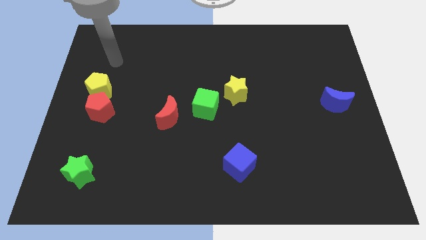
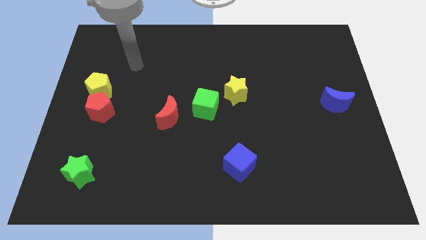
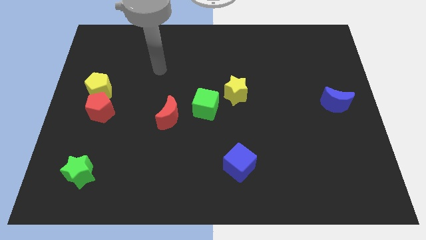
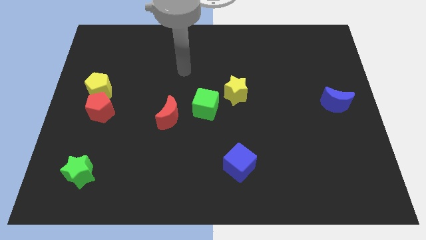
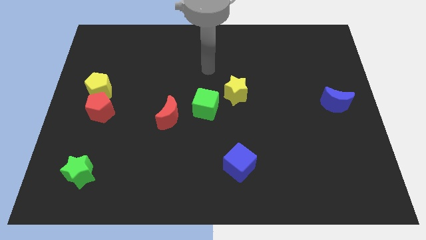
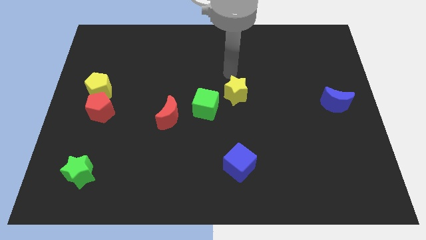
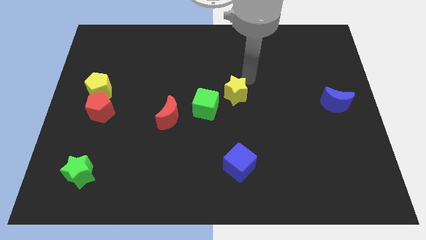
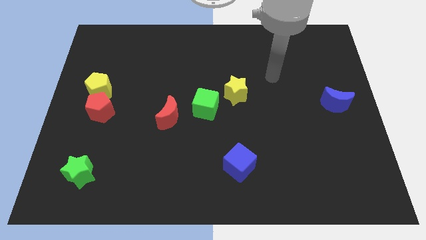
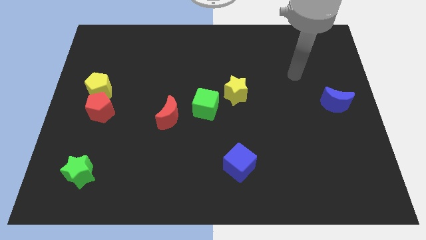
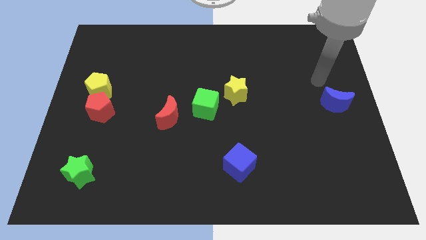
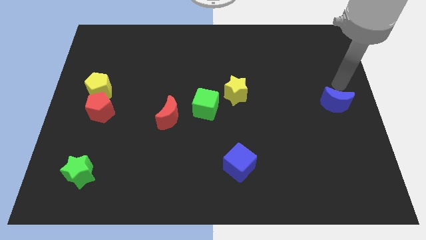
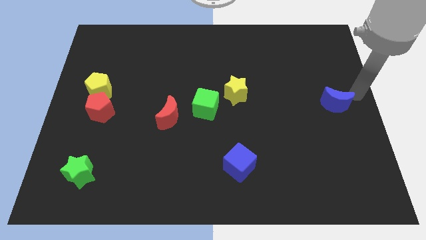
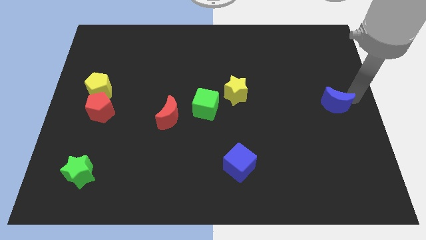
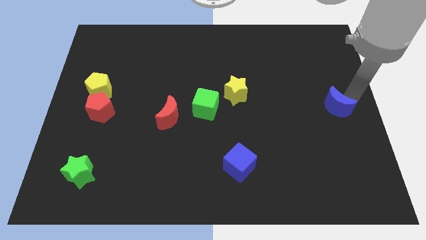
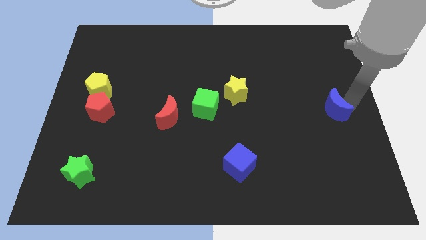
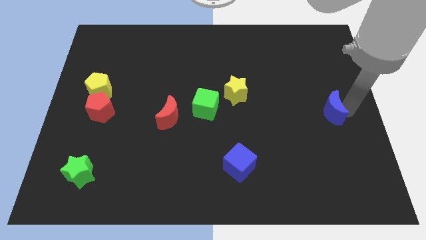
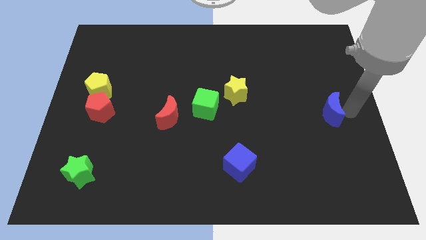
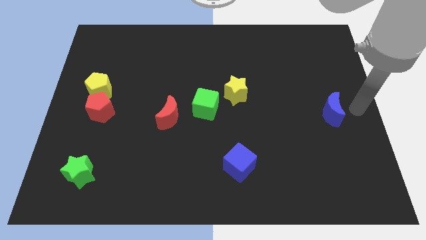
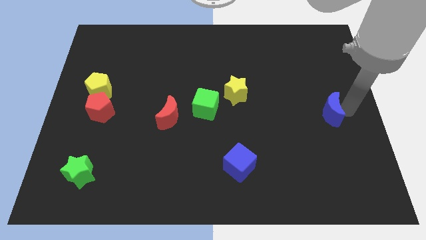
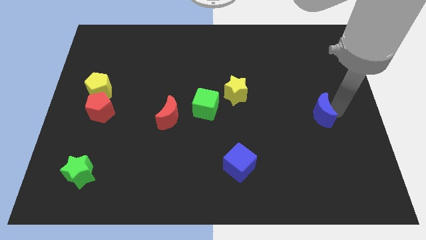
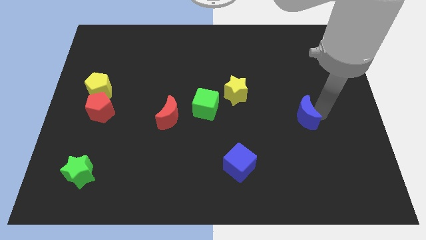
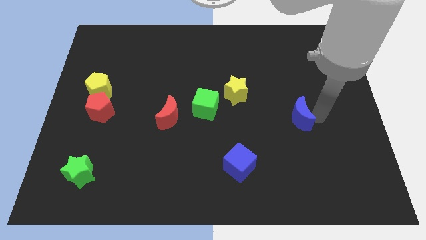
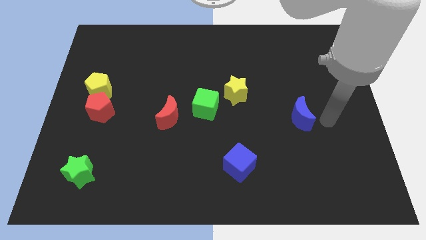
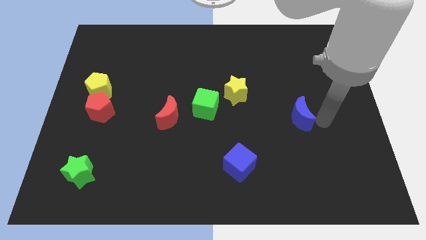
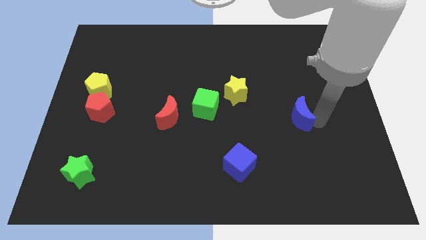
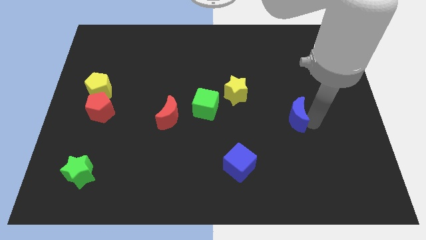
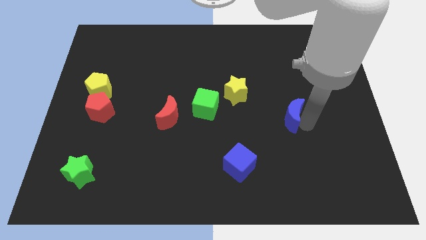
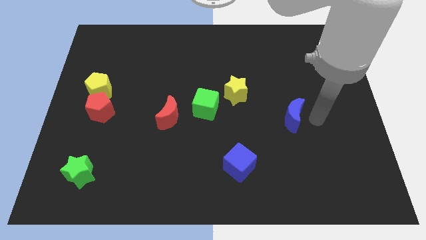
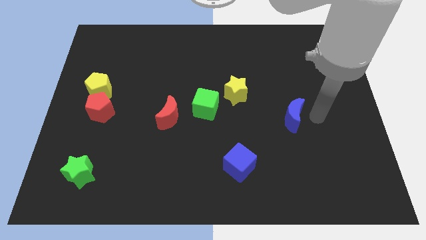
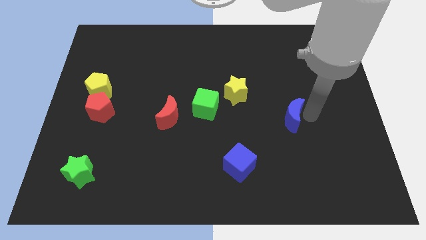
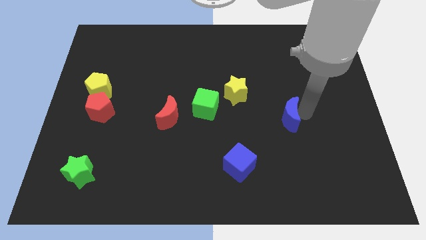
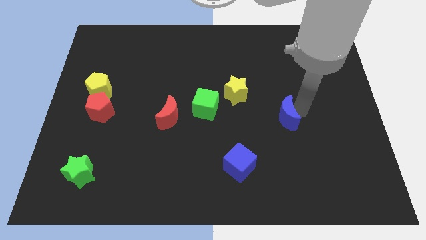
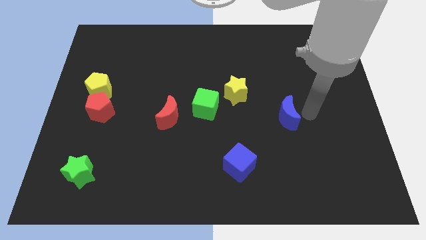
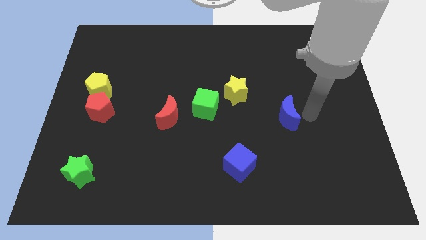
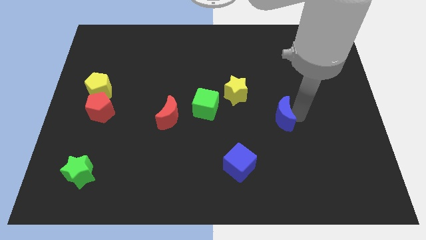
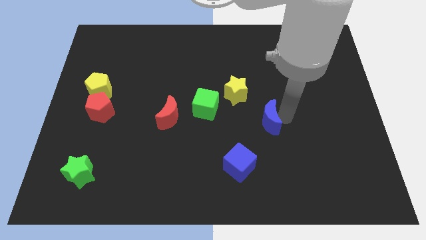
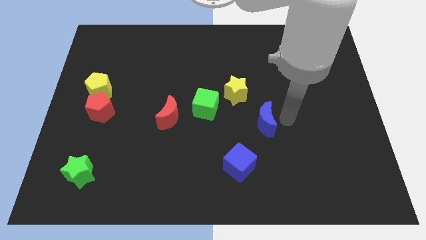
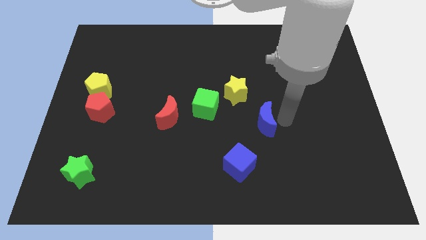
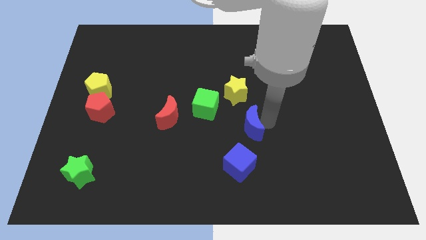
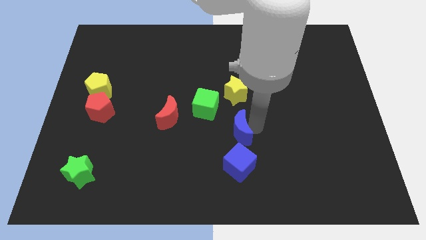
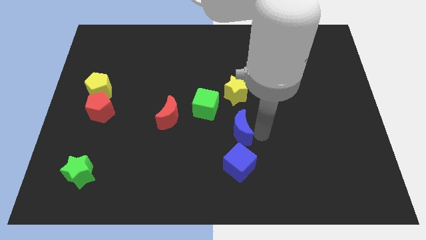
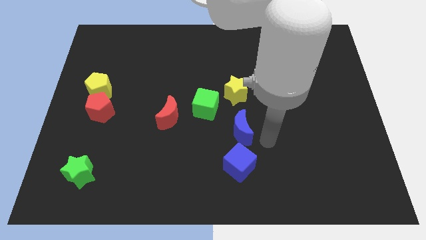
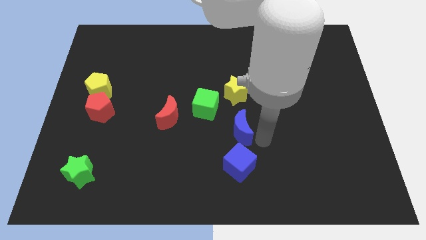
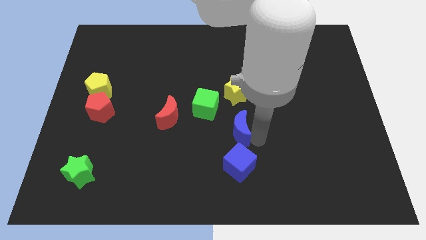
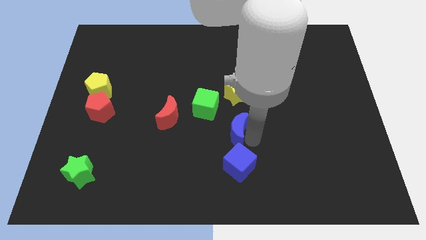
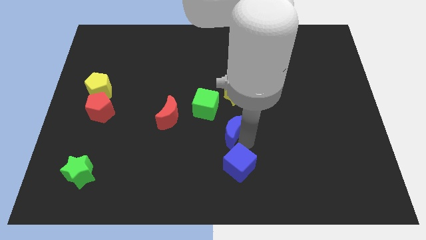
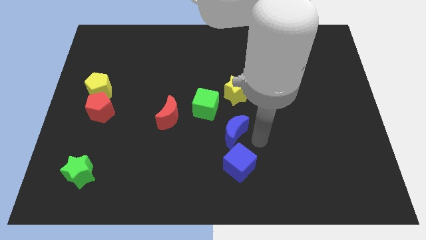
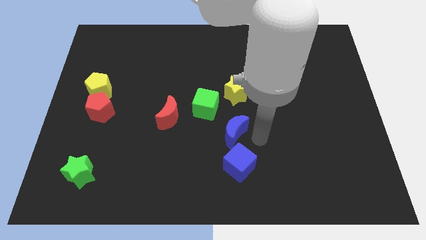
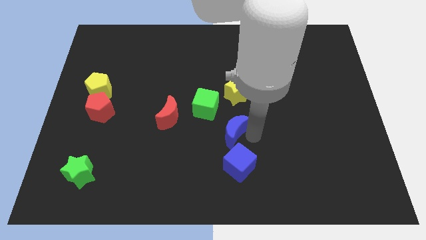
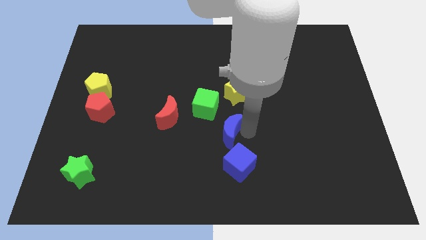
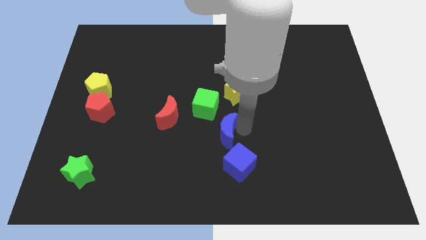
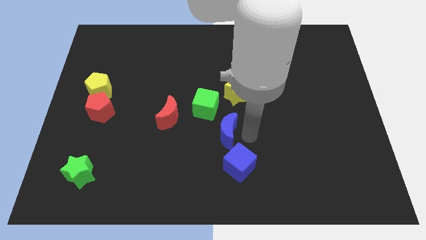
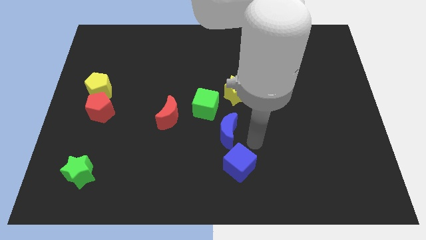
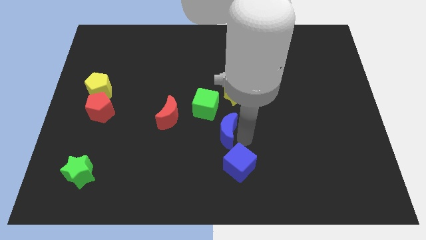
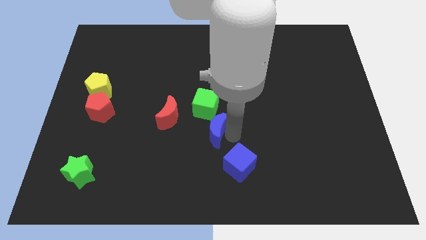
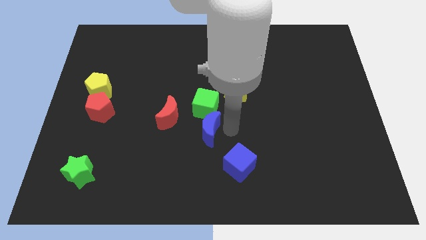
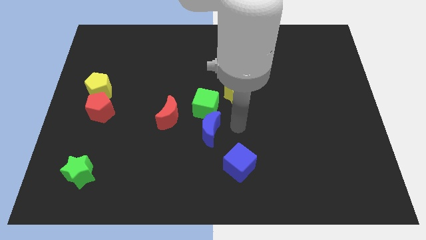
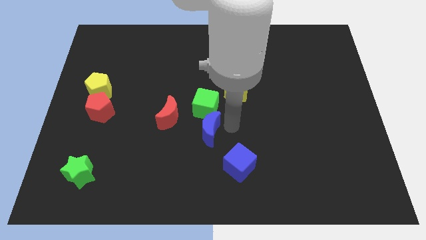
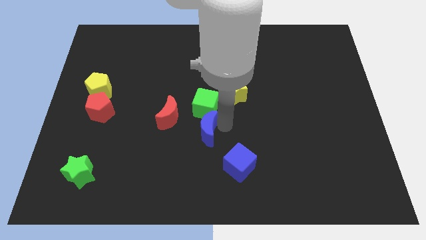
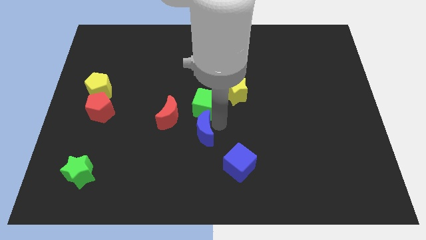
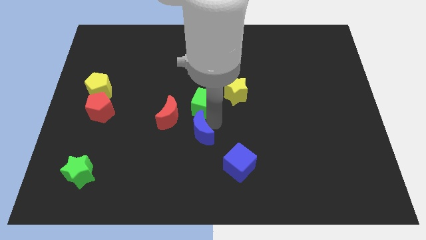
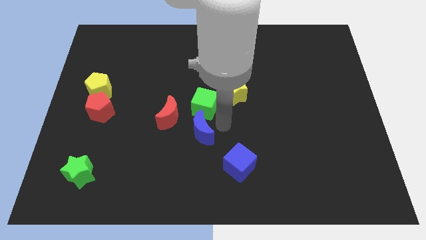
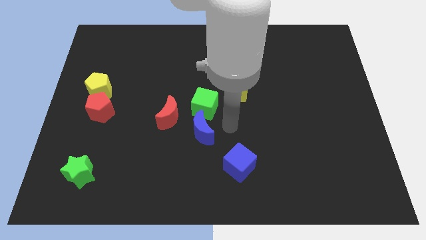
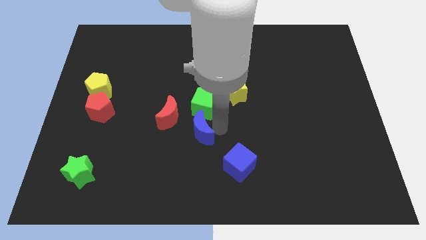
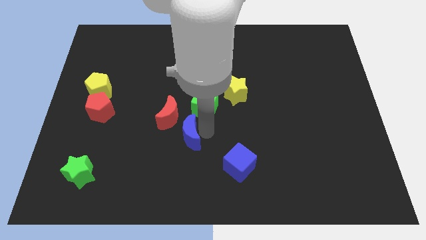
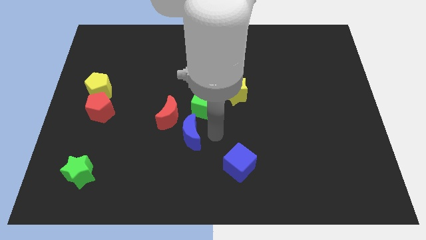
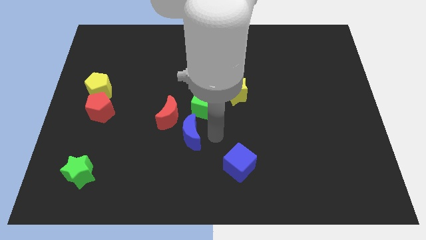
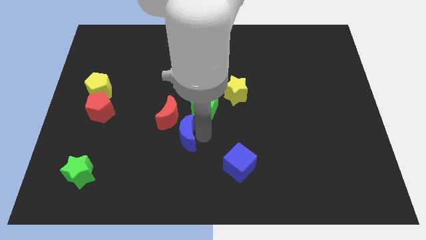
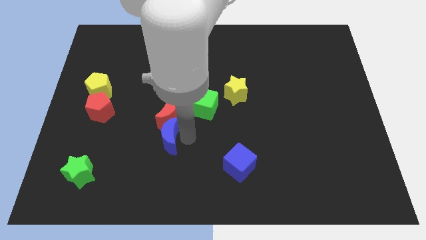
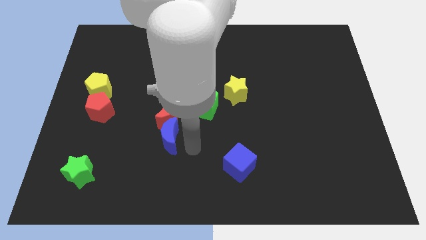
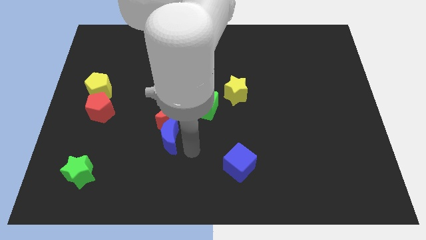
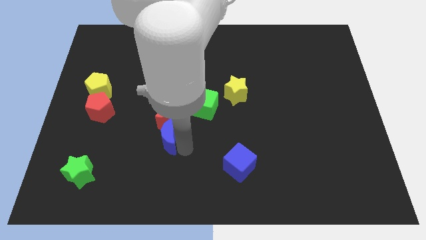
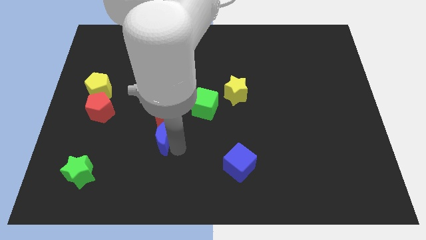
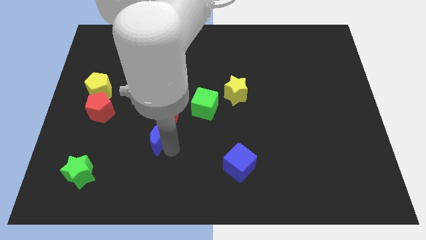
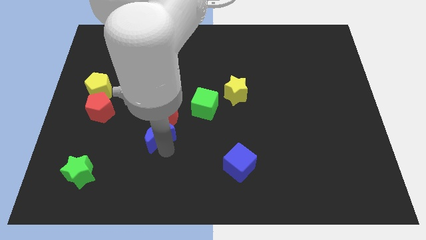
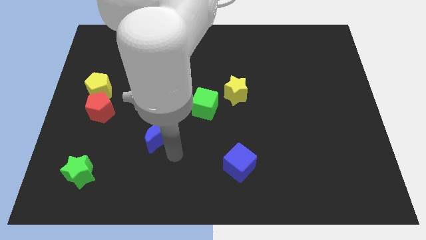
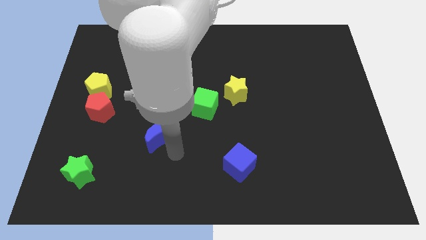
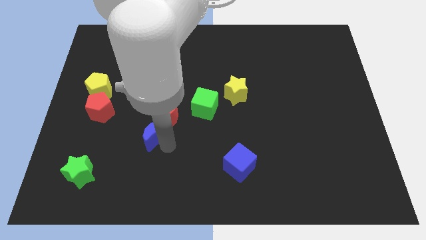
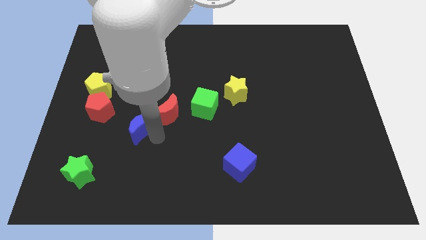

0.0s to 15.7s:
put the blue moon to the left side of the red moon
